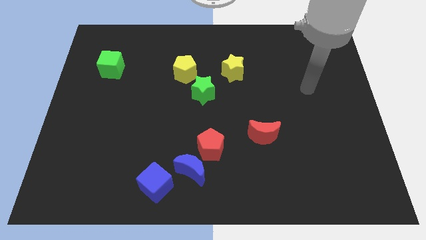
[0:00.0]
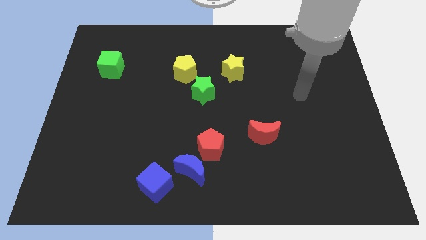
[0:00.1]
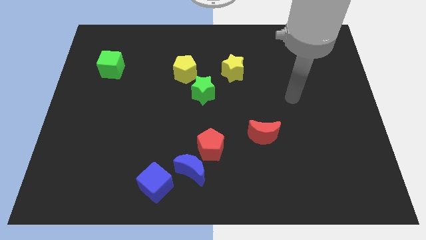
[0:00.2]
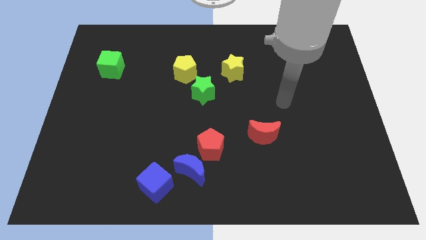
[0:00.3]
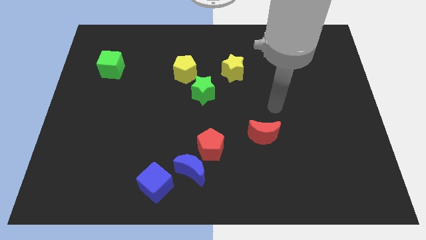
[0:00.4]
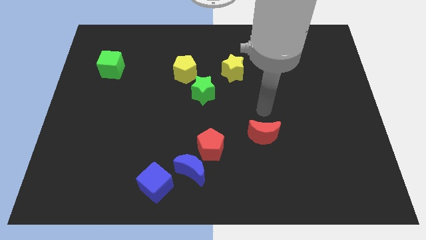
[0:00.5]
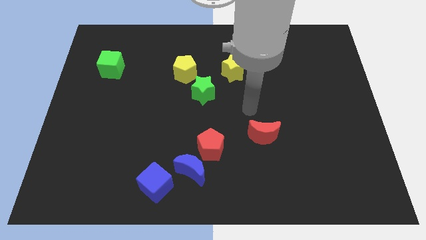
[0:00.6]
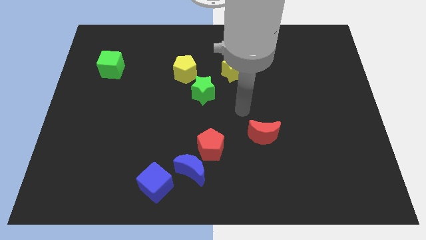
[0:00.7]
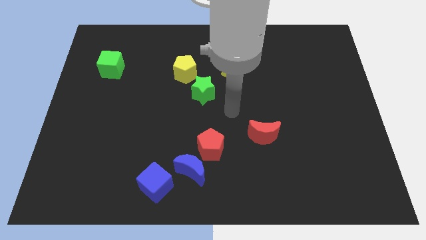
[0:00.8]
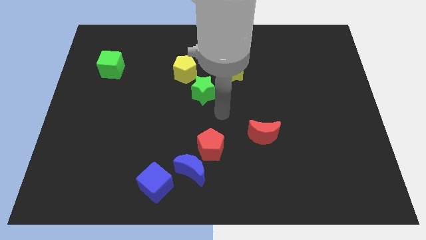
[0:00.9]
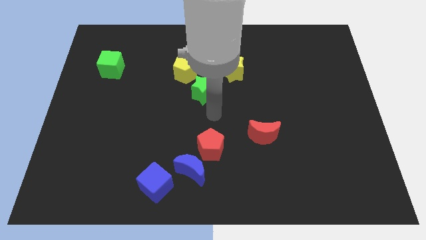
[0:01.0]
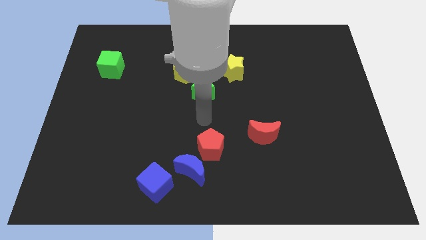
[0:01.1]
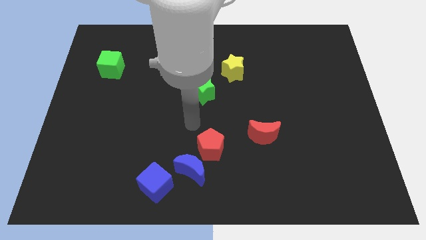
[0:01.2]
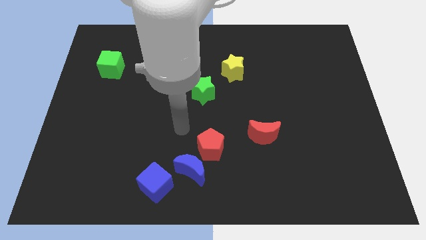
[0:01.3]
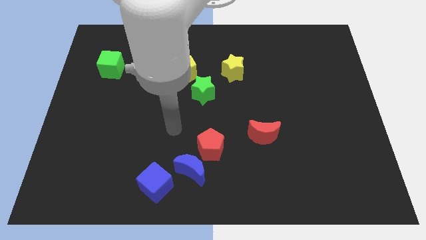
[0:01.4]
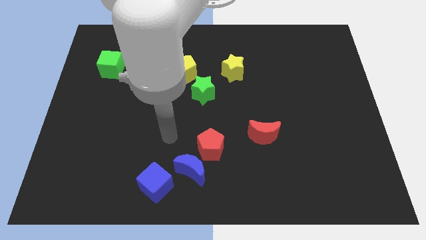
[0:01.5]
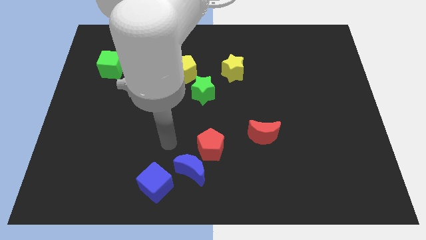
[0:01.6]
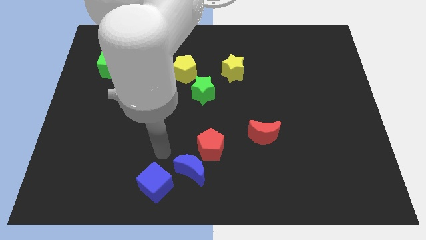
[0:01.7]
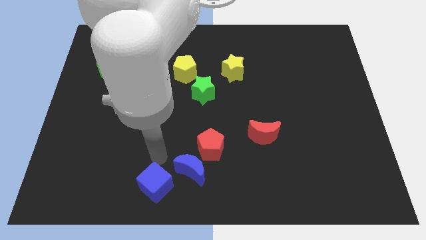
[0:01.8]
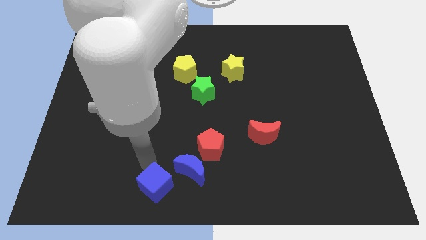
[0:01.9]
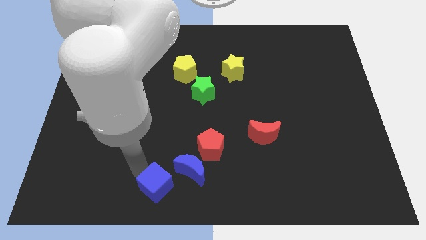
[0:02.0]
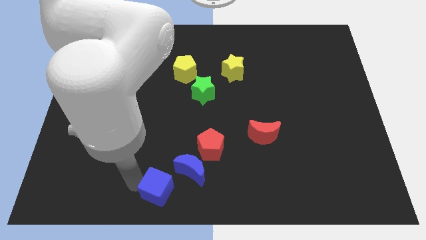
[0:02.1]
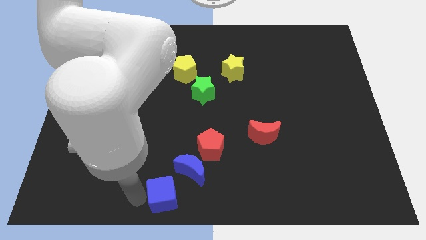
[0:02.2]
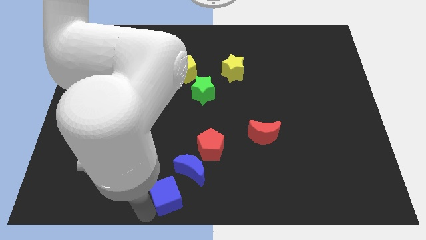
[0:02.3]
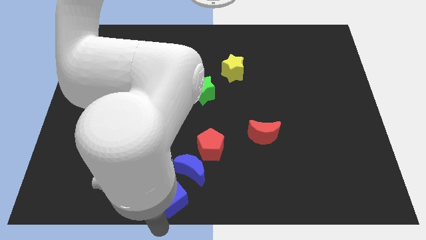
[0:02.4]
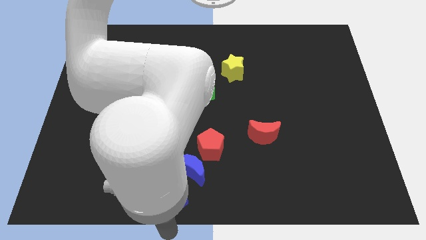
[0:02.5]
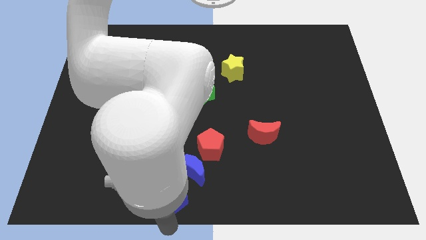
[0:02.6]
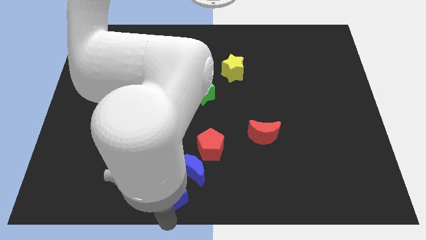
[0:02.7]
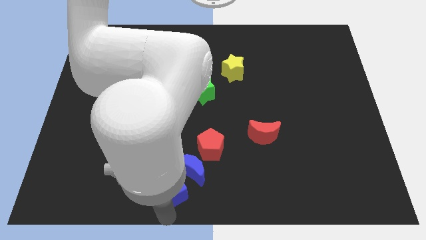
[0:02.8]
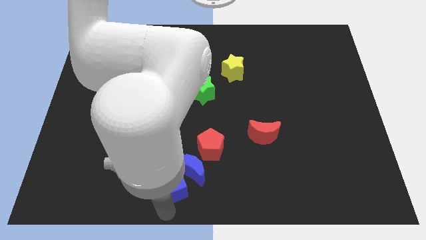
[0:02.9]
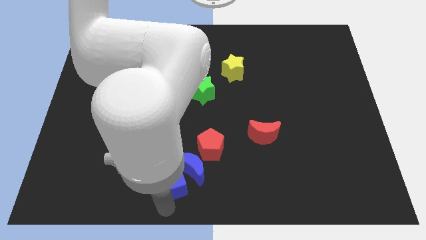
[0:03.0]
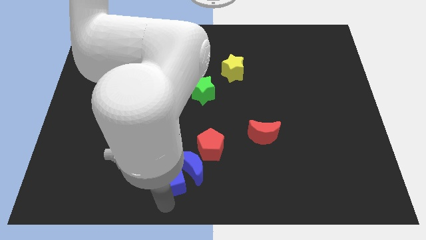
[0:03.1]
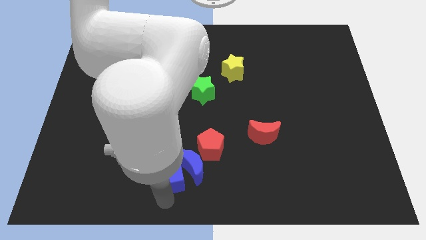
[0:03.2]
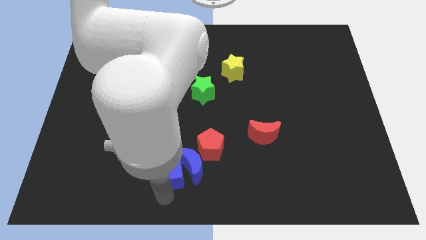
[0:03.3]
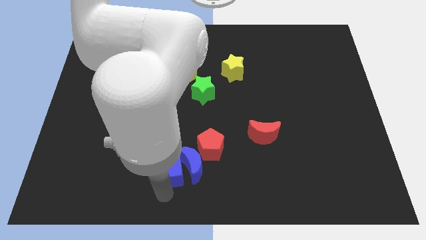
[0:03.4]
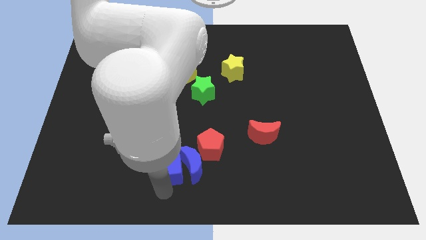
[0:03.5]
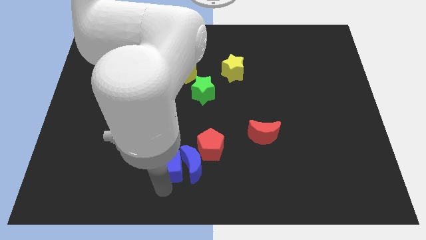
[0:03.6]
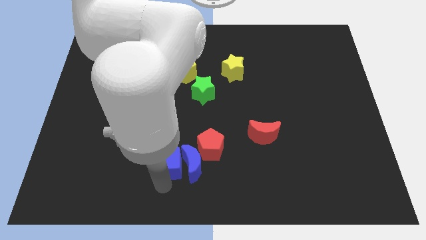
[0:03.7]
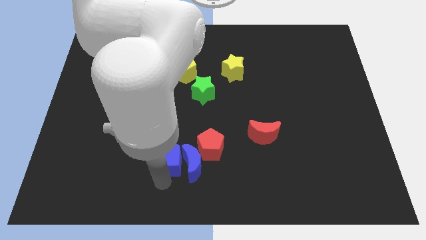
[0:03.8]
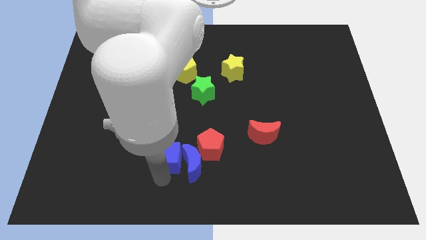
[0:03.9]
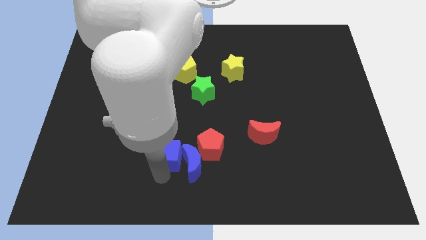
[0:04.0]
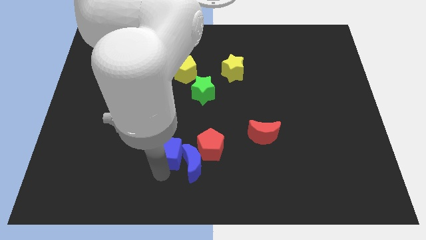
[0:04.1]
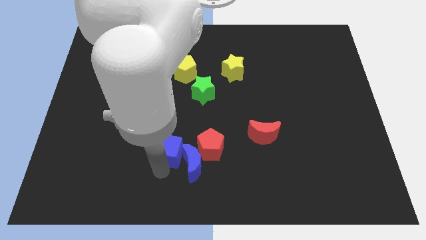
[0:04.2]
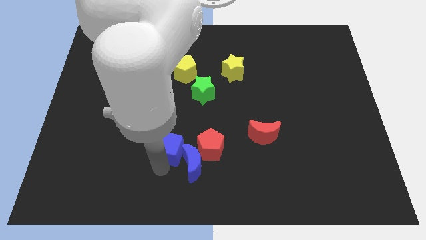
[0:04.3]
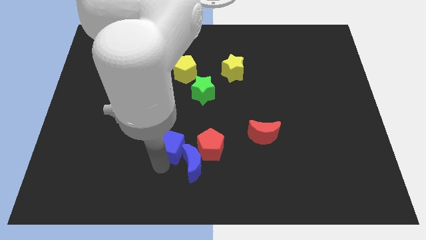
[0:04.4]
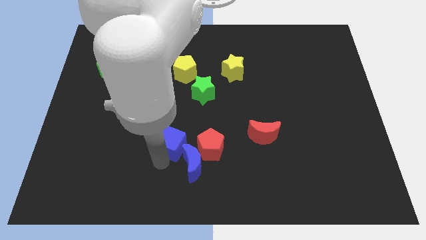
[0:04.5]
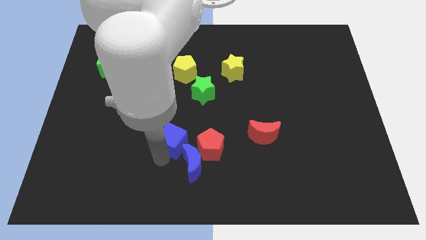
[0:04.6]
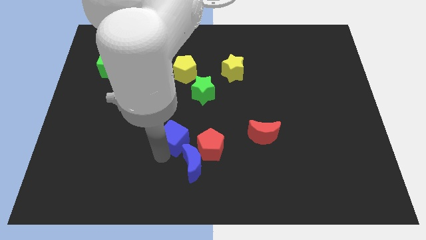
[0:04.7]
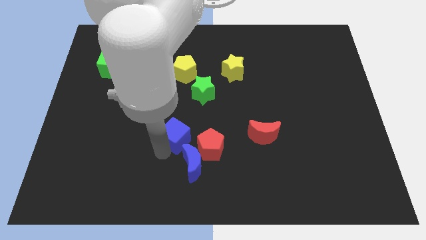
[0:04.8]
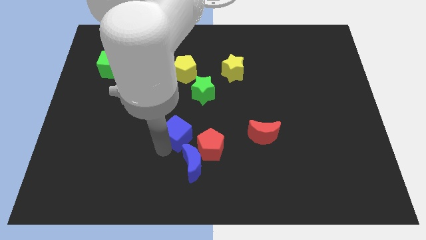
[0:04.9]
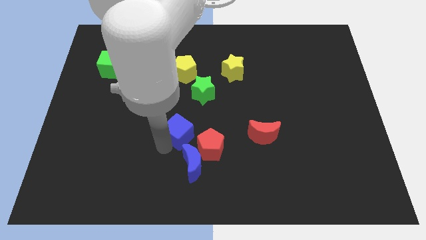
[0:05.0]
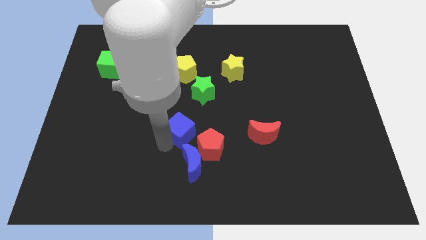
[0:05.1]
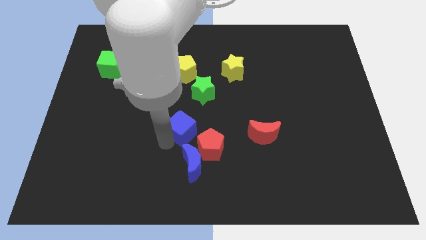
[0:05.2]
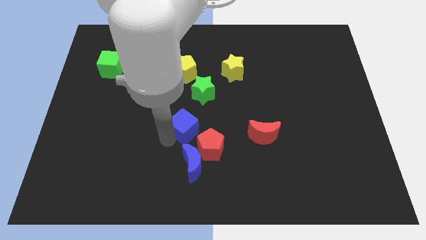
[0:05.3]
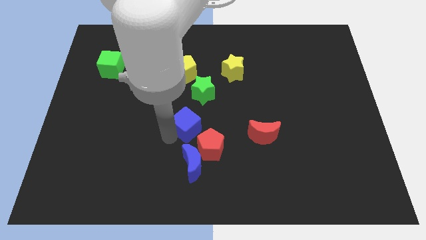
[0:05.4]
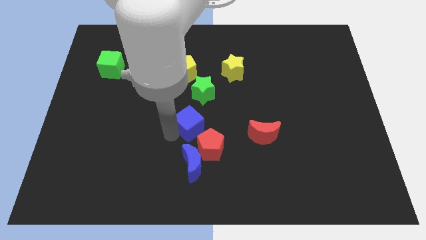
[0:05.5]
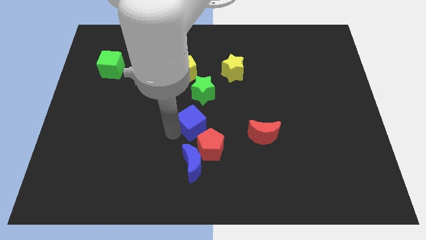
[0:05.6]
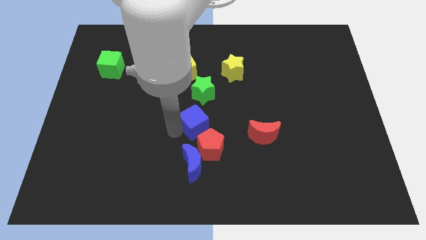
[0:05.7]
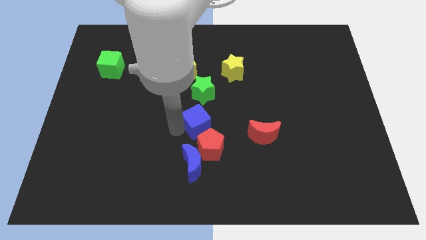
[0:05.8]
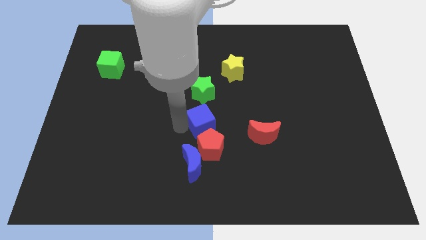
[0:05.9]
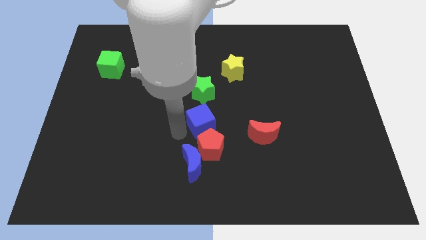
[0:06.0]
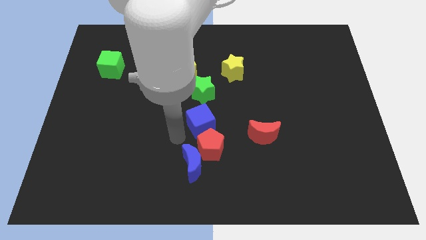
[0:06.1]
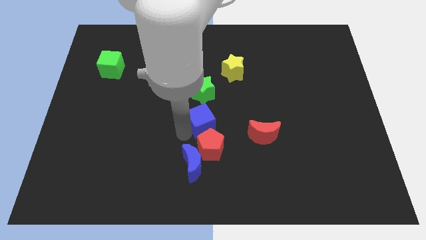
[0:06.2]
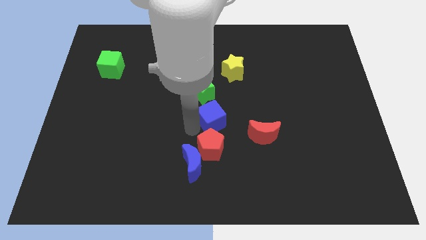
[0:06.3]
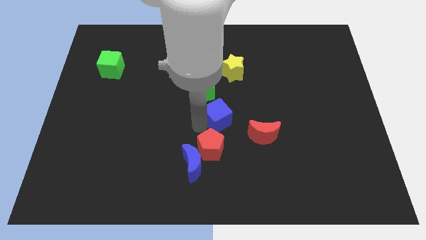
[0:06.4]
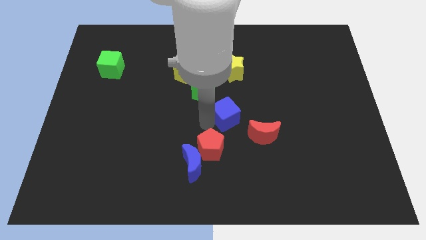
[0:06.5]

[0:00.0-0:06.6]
put the blue cube to the bottom side of the yellow star
